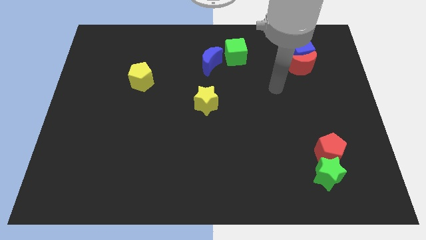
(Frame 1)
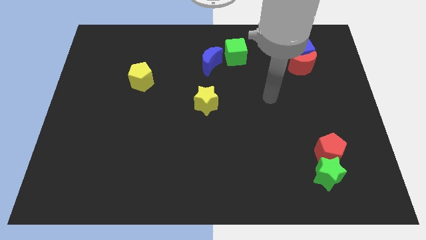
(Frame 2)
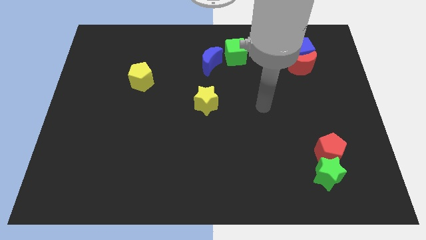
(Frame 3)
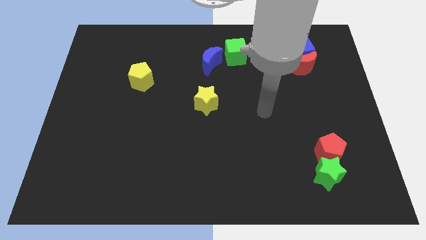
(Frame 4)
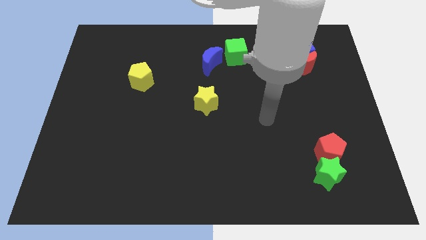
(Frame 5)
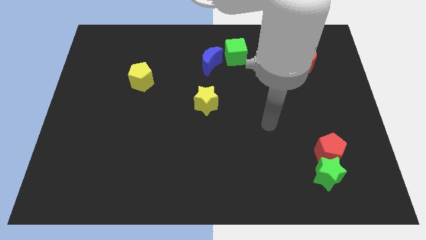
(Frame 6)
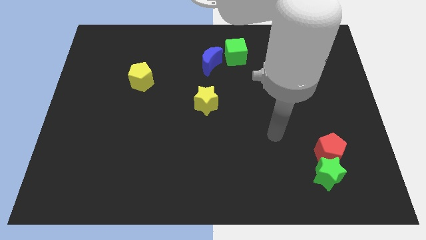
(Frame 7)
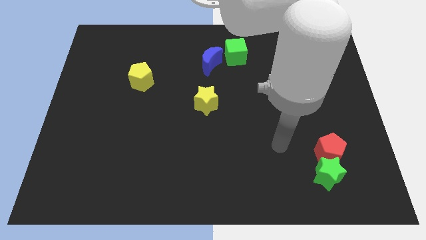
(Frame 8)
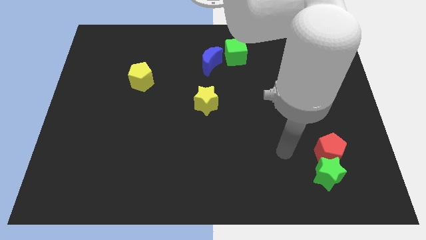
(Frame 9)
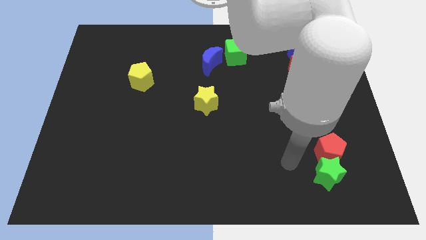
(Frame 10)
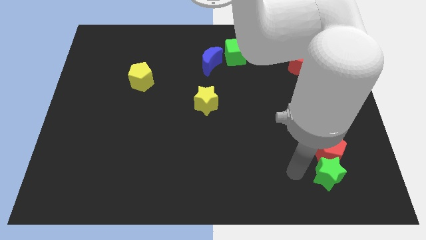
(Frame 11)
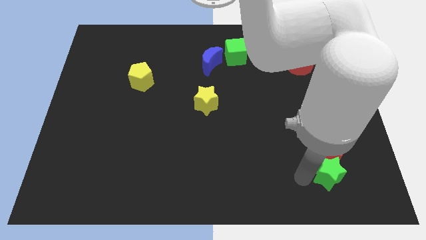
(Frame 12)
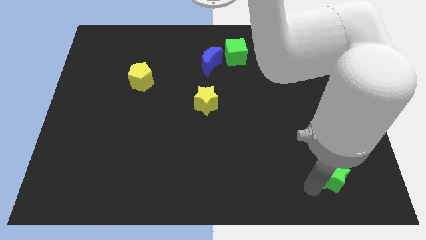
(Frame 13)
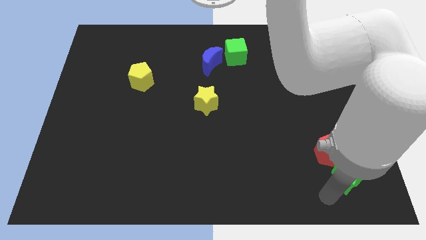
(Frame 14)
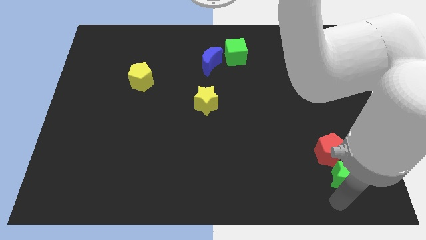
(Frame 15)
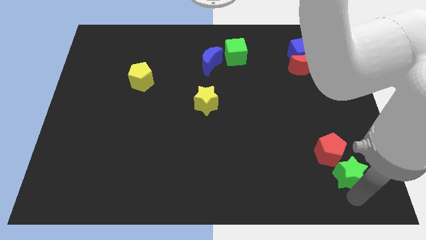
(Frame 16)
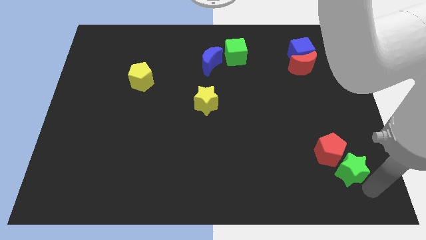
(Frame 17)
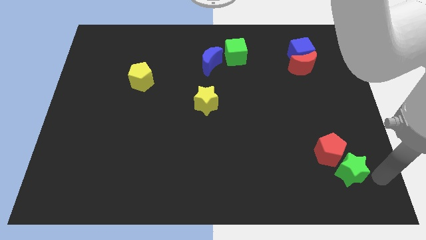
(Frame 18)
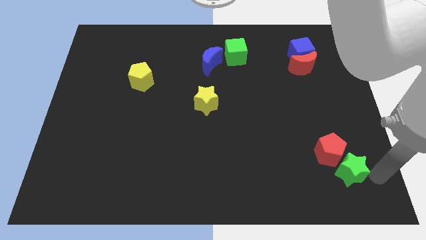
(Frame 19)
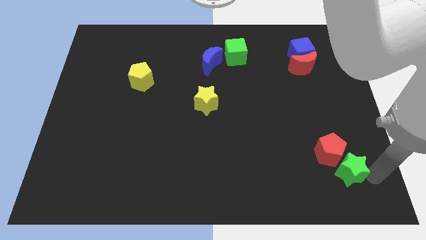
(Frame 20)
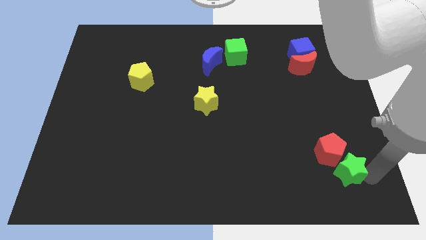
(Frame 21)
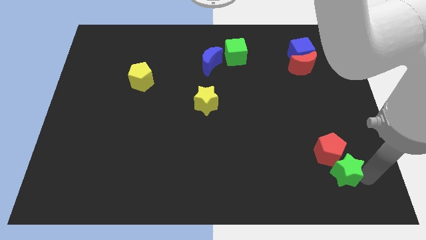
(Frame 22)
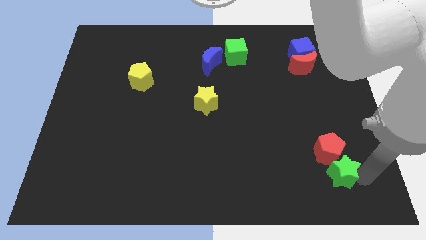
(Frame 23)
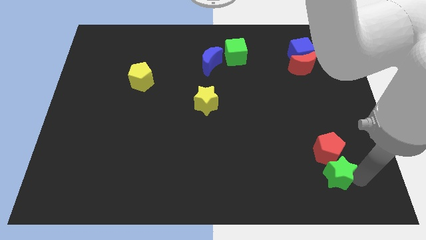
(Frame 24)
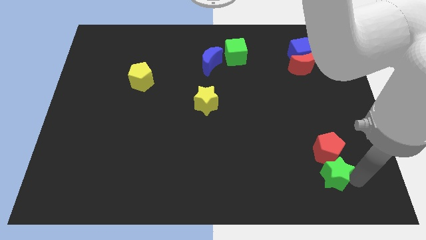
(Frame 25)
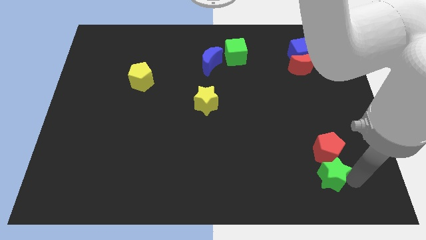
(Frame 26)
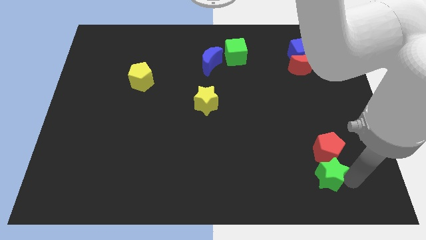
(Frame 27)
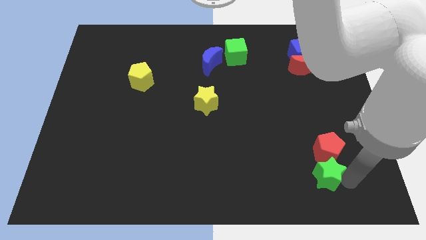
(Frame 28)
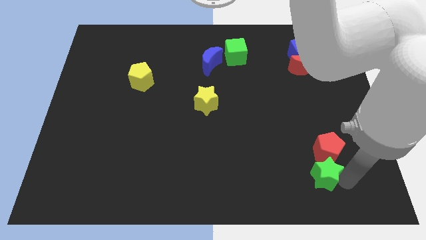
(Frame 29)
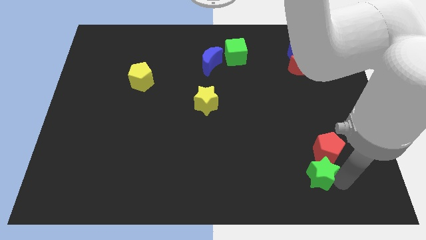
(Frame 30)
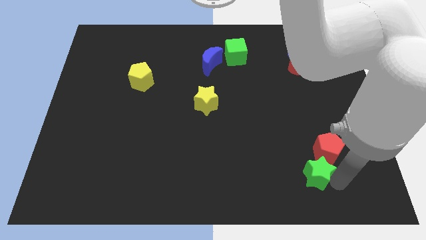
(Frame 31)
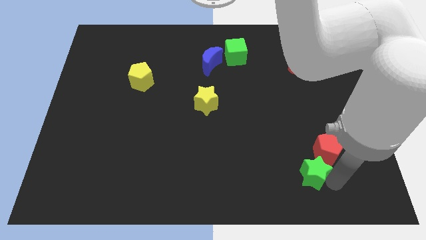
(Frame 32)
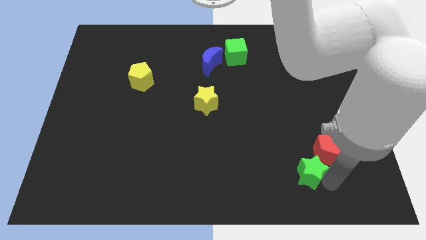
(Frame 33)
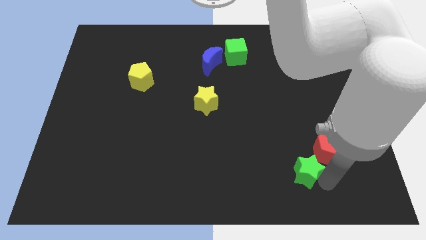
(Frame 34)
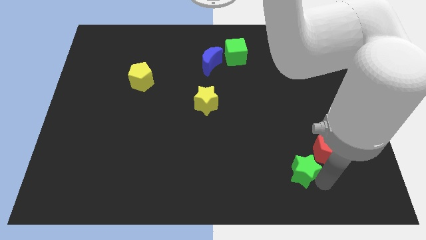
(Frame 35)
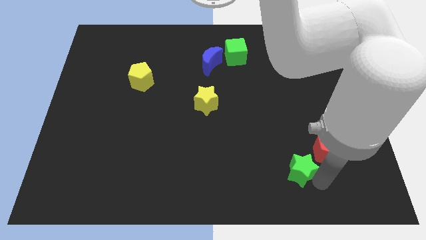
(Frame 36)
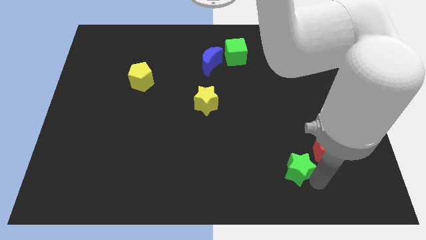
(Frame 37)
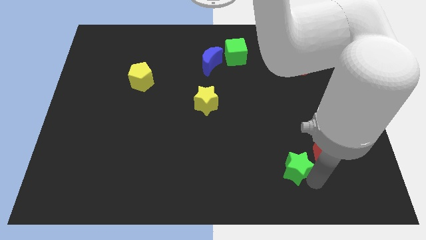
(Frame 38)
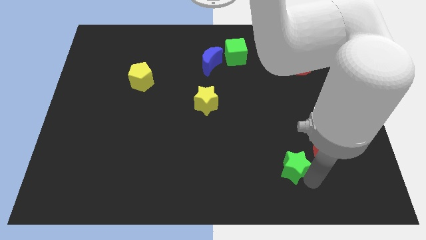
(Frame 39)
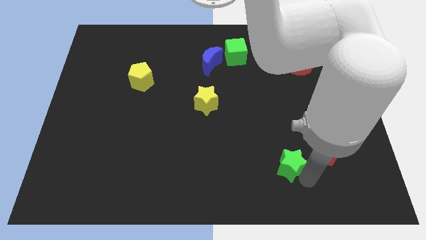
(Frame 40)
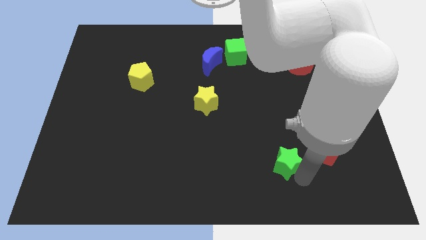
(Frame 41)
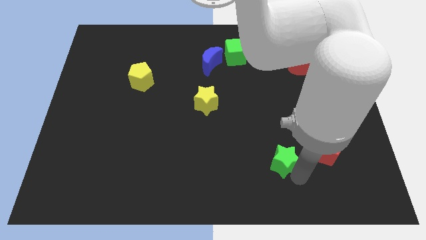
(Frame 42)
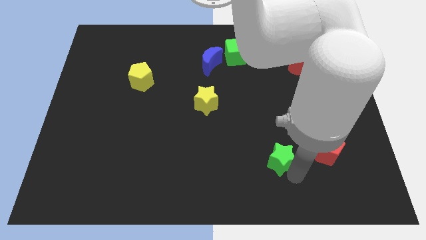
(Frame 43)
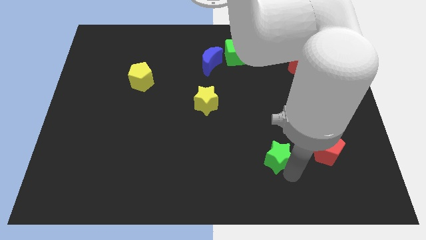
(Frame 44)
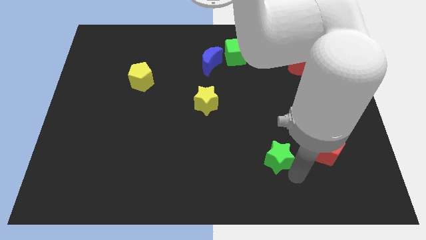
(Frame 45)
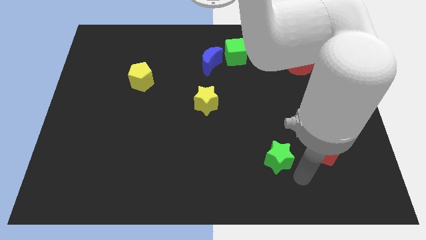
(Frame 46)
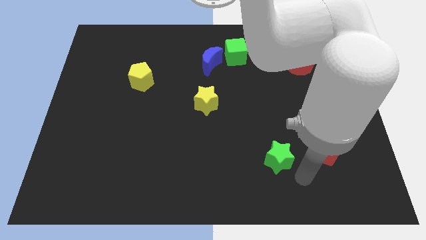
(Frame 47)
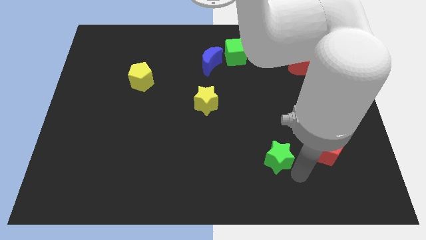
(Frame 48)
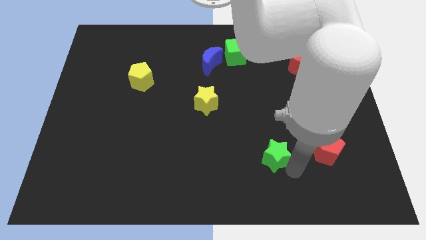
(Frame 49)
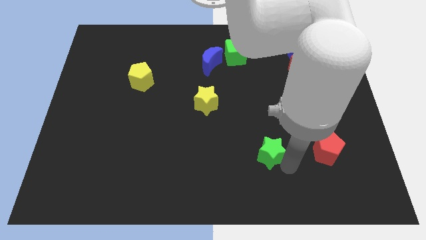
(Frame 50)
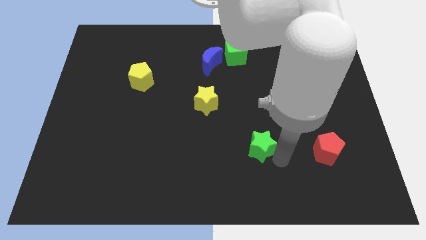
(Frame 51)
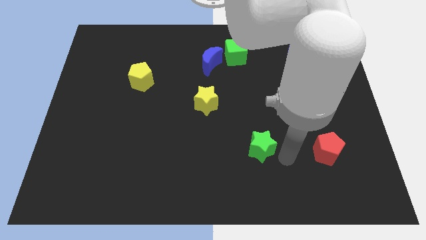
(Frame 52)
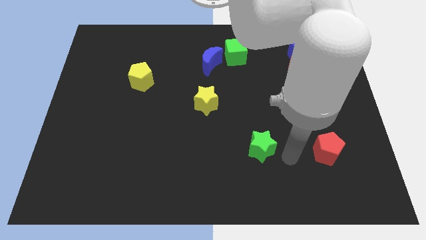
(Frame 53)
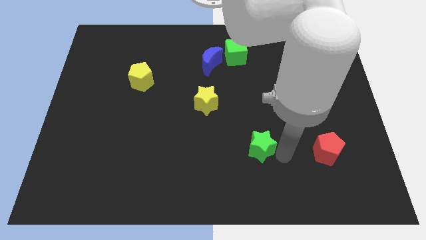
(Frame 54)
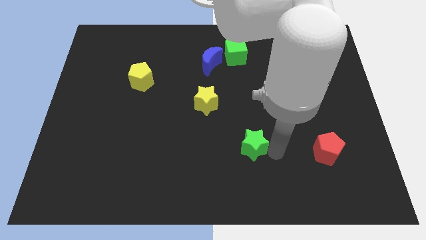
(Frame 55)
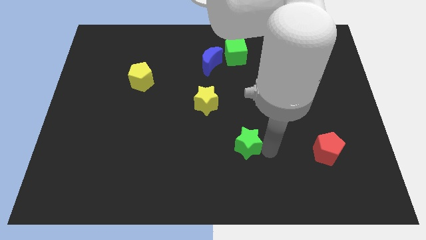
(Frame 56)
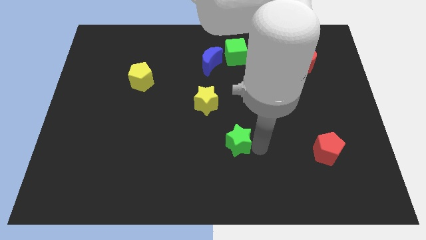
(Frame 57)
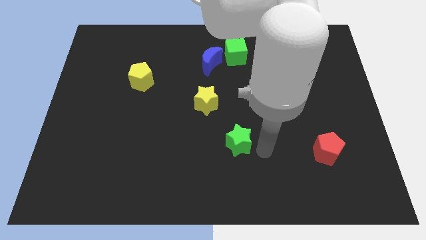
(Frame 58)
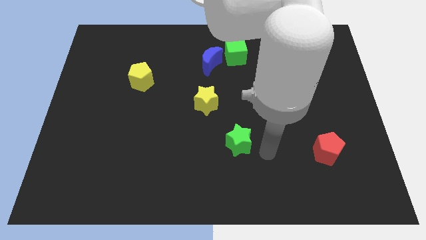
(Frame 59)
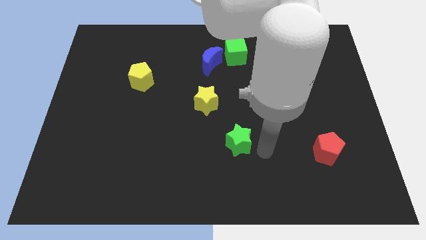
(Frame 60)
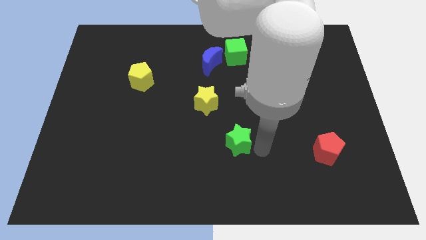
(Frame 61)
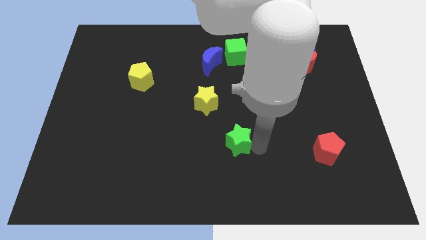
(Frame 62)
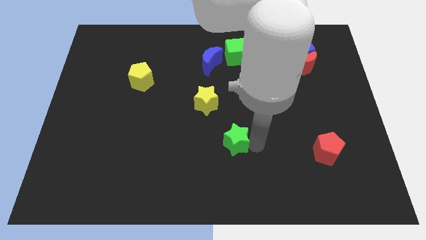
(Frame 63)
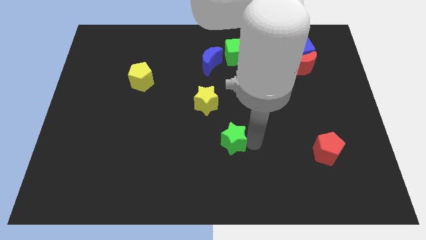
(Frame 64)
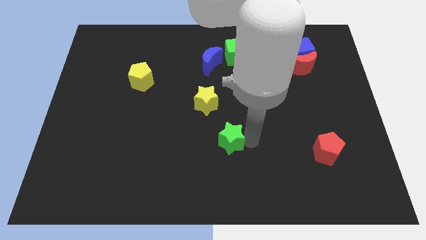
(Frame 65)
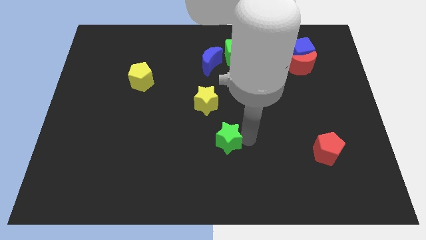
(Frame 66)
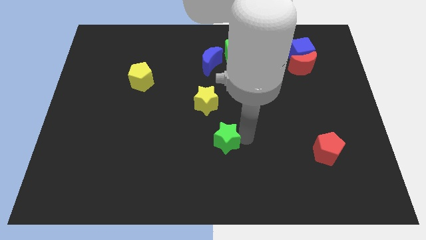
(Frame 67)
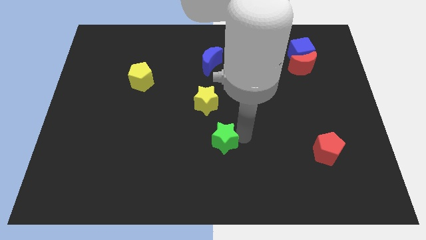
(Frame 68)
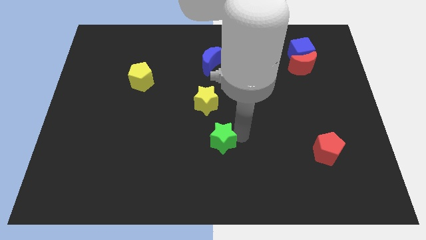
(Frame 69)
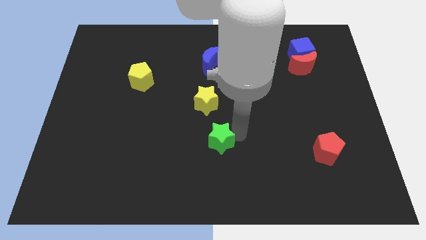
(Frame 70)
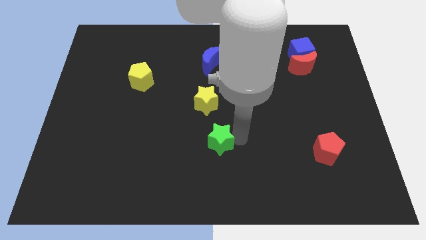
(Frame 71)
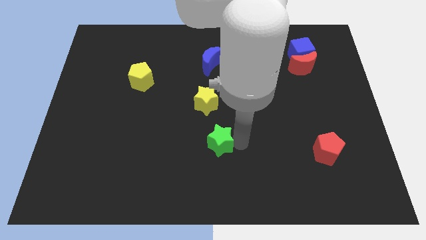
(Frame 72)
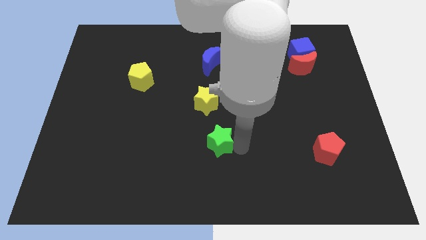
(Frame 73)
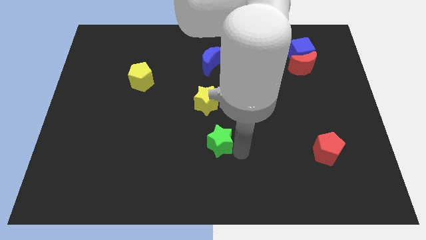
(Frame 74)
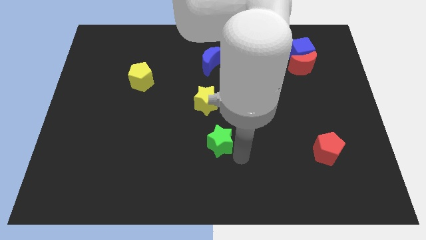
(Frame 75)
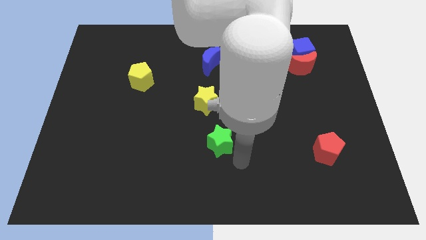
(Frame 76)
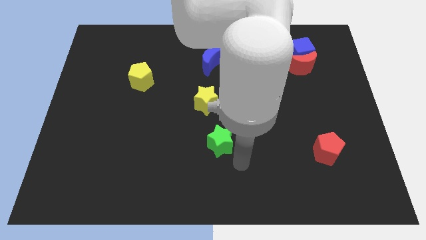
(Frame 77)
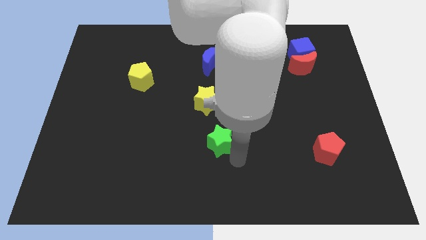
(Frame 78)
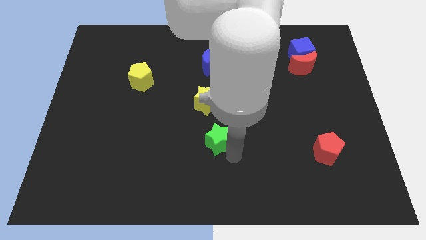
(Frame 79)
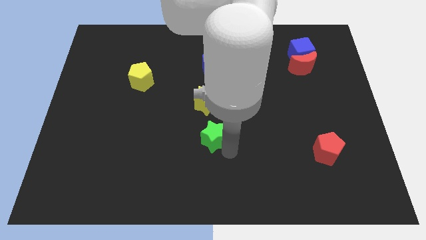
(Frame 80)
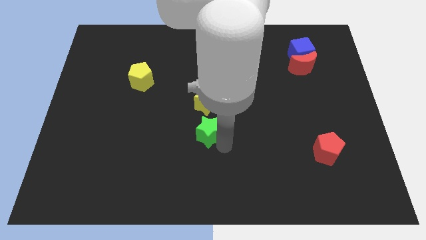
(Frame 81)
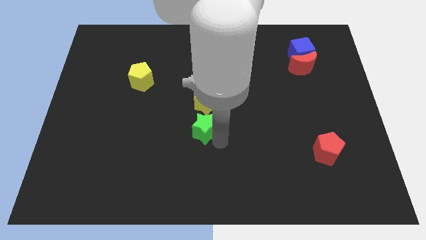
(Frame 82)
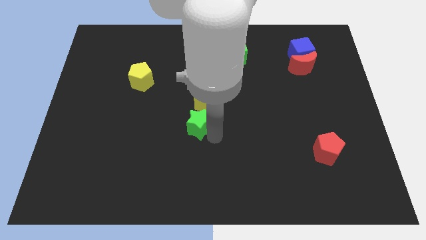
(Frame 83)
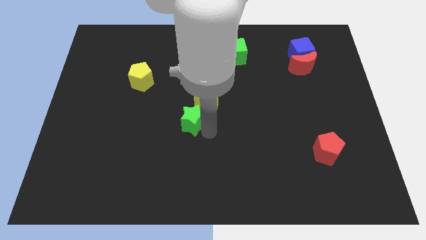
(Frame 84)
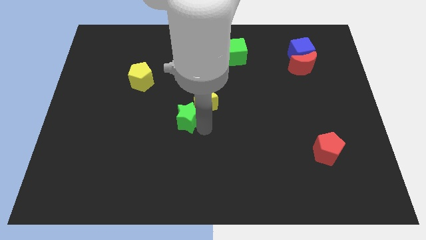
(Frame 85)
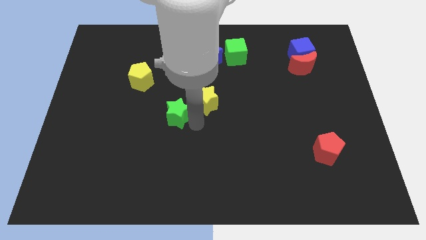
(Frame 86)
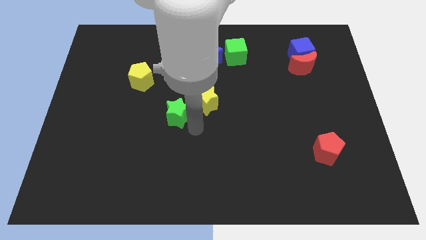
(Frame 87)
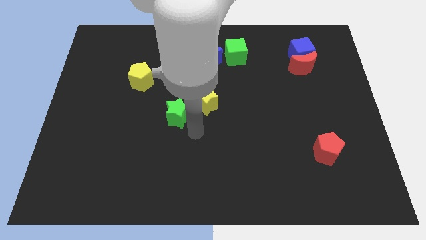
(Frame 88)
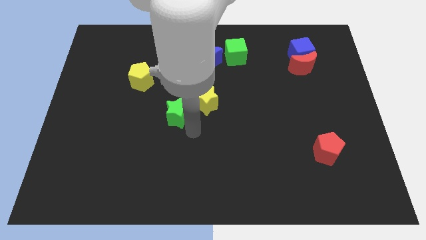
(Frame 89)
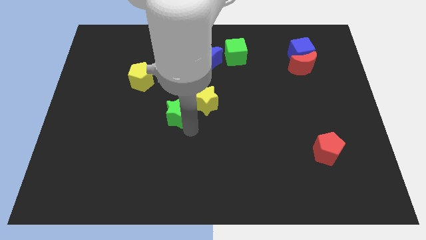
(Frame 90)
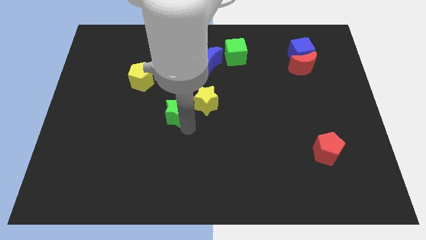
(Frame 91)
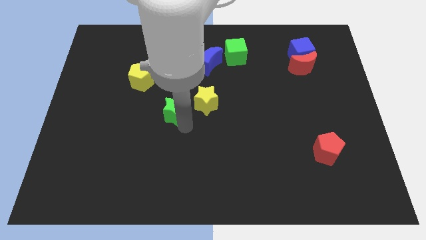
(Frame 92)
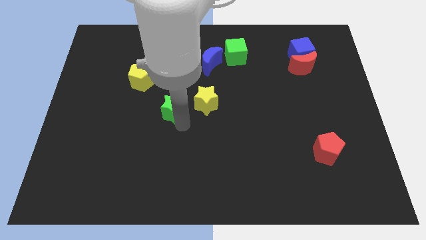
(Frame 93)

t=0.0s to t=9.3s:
slide the green star to the bottom right side of the yellow pentagon
